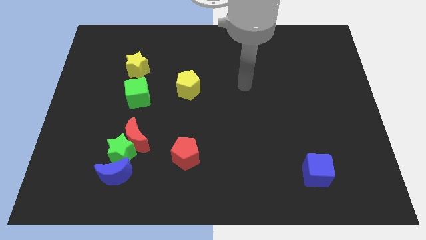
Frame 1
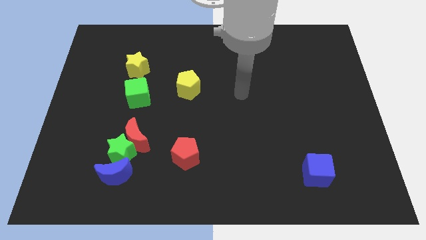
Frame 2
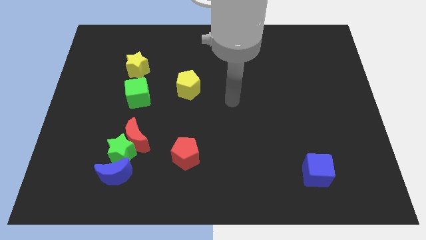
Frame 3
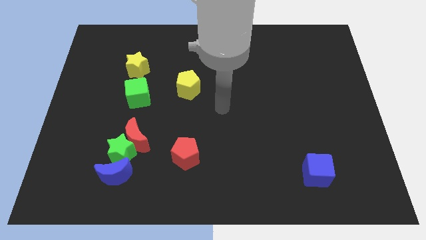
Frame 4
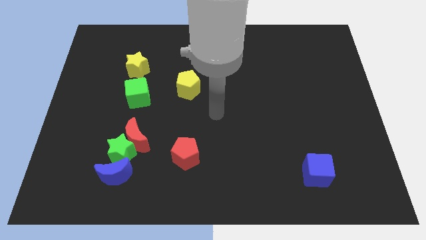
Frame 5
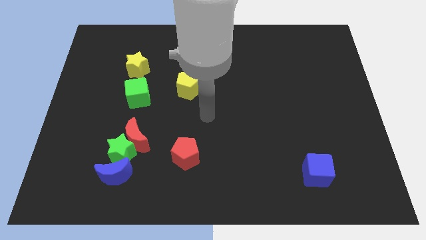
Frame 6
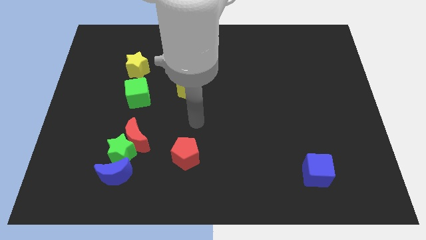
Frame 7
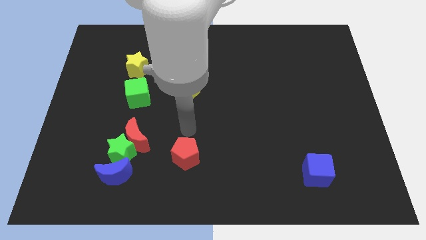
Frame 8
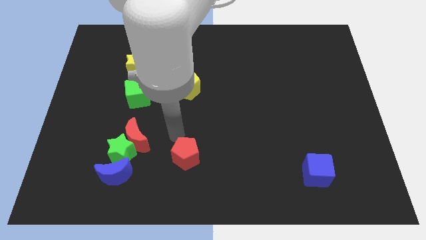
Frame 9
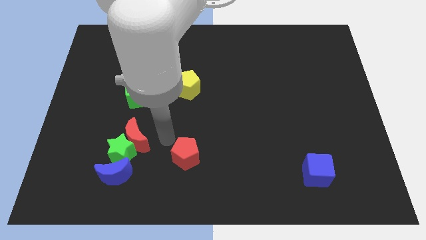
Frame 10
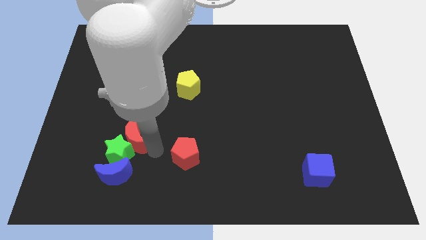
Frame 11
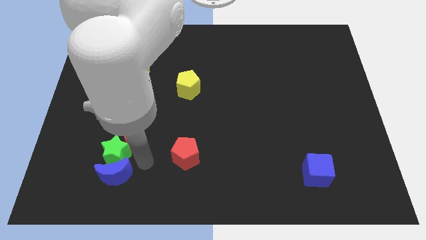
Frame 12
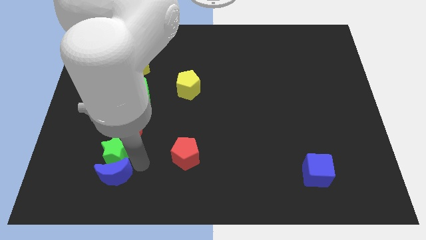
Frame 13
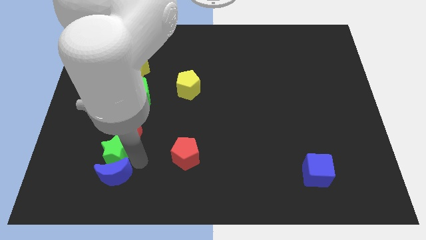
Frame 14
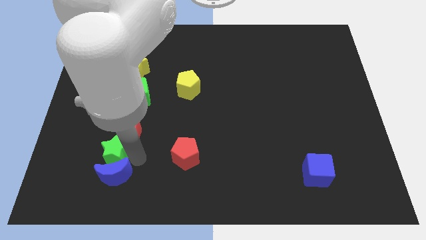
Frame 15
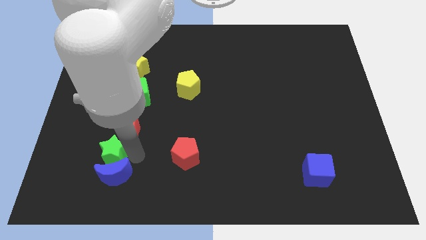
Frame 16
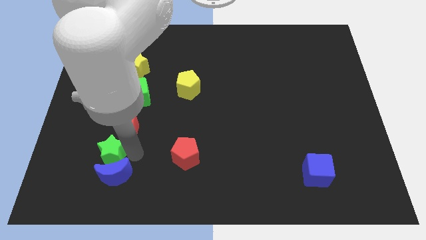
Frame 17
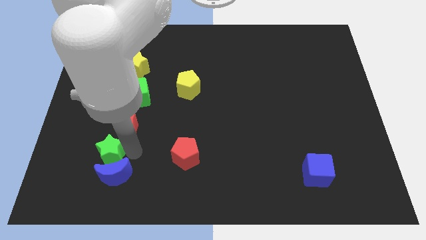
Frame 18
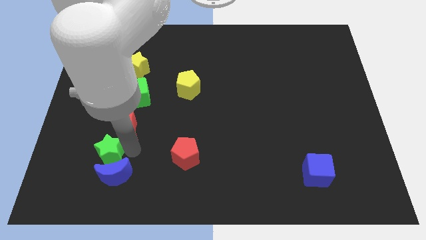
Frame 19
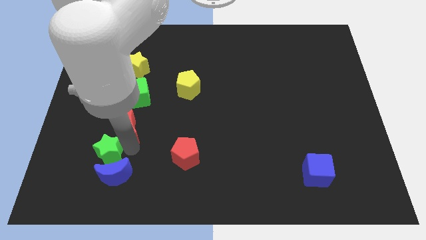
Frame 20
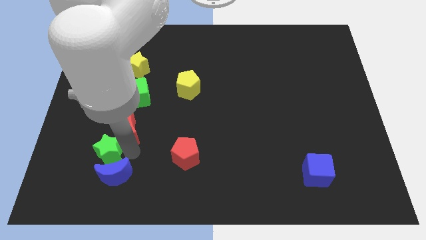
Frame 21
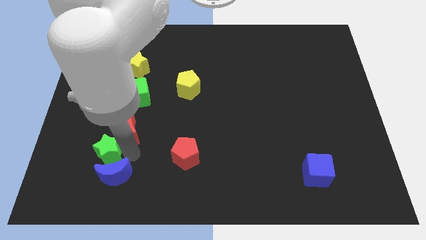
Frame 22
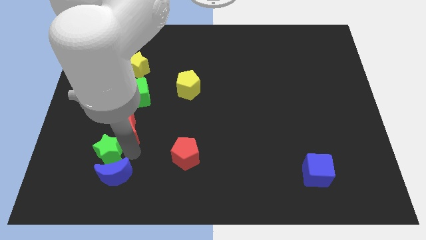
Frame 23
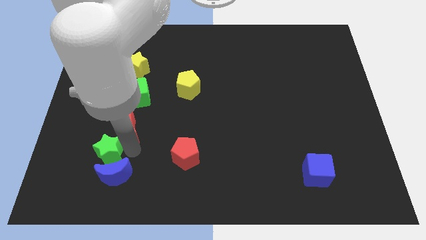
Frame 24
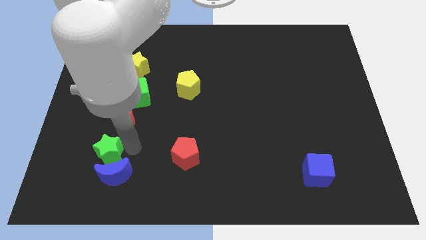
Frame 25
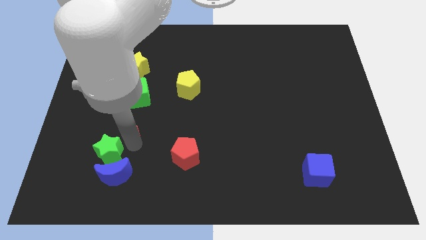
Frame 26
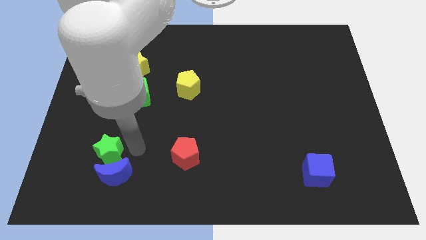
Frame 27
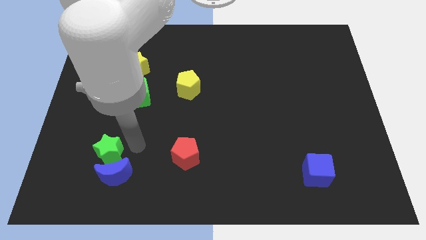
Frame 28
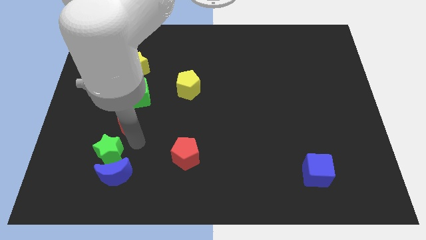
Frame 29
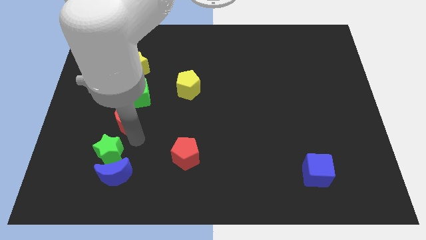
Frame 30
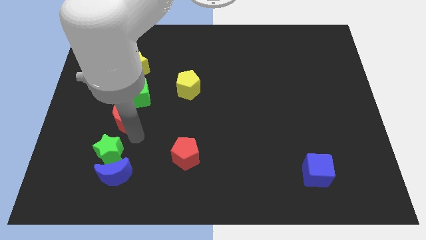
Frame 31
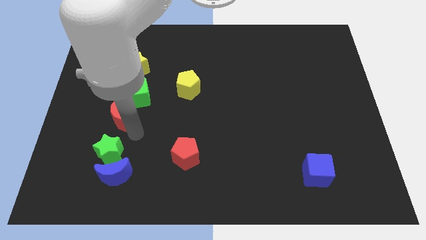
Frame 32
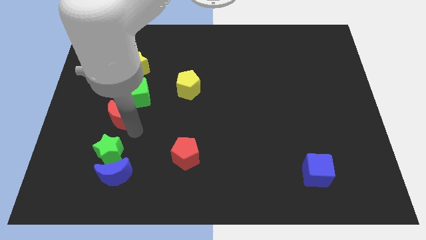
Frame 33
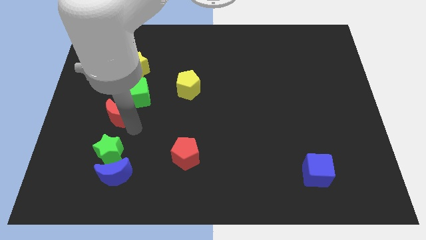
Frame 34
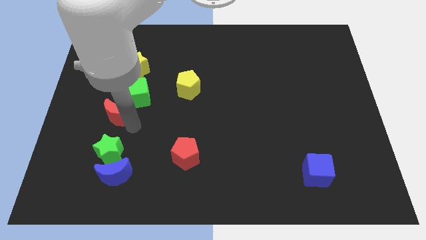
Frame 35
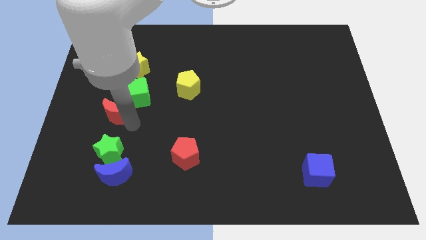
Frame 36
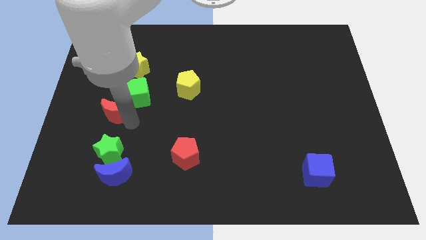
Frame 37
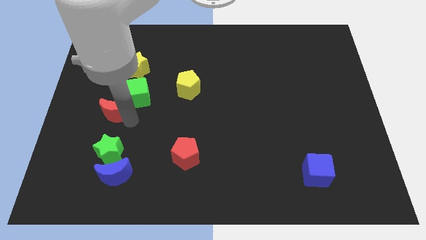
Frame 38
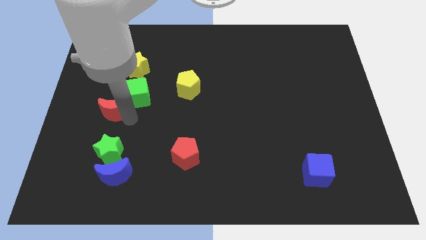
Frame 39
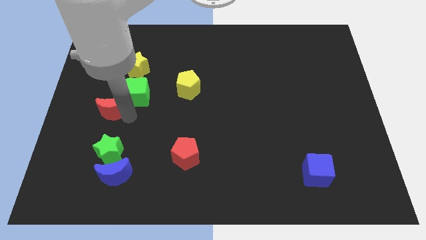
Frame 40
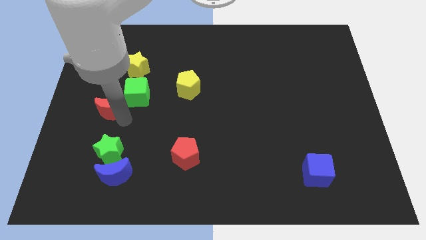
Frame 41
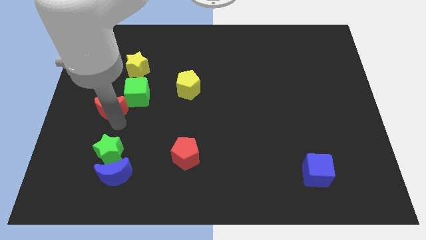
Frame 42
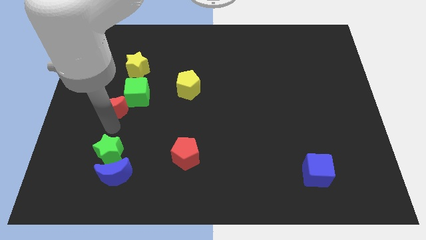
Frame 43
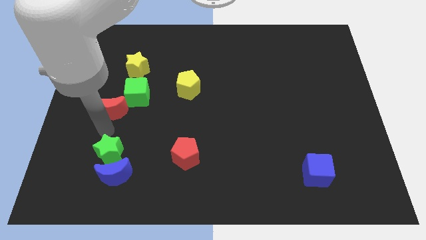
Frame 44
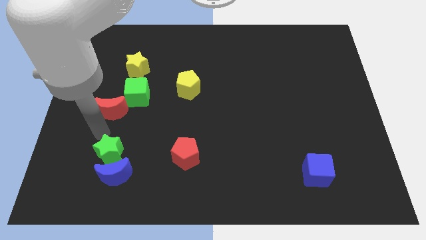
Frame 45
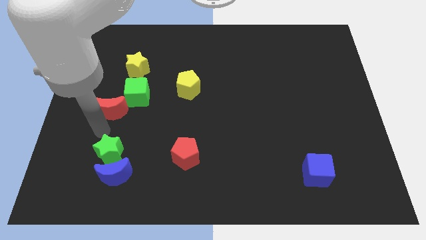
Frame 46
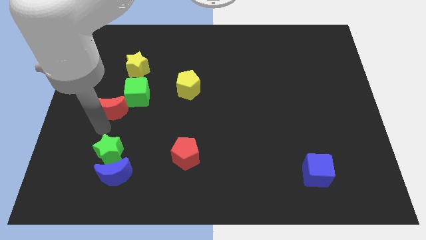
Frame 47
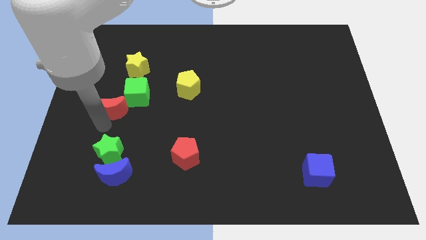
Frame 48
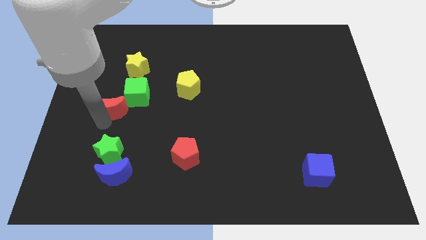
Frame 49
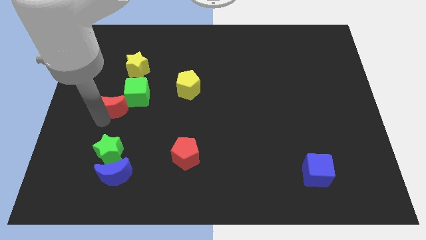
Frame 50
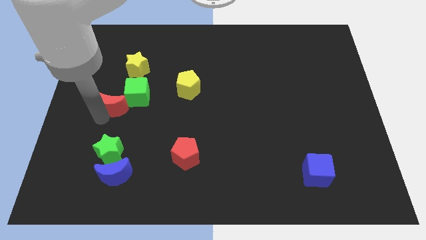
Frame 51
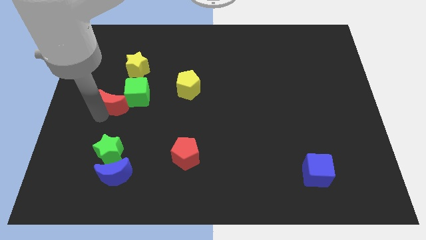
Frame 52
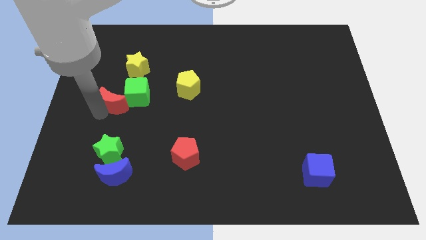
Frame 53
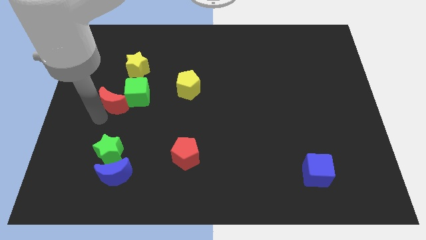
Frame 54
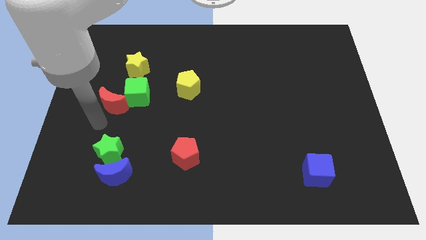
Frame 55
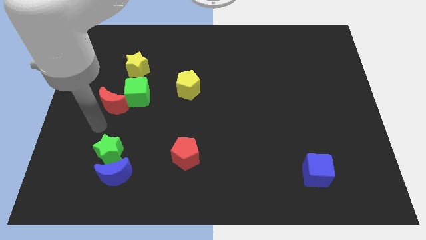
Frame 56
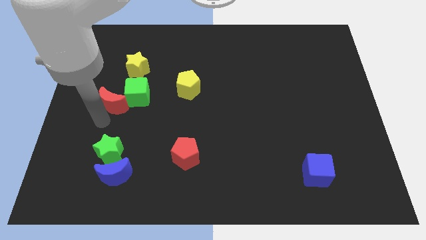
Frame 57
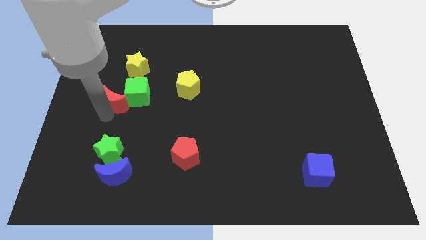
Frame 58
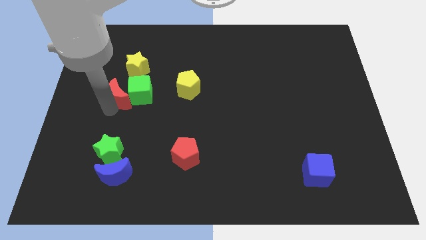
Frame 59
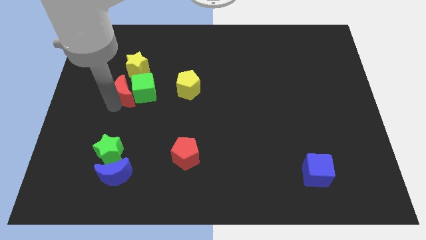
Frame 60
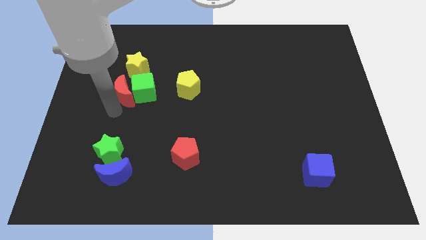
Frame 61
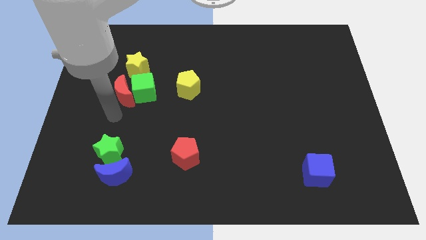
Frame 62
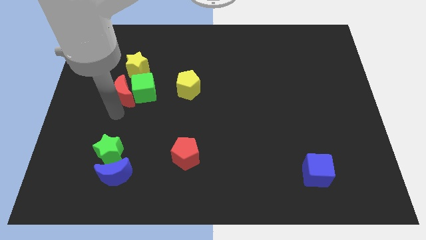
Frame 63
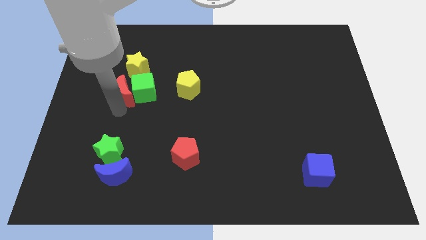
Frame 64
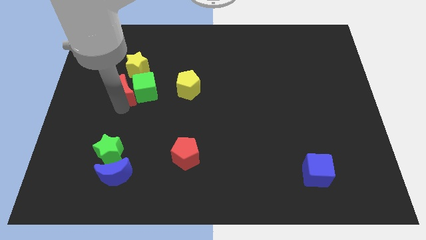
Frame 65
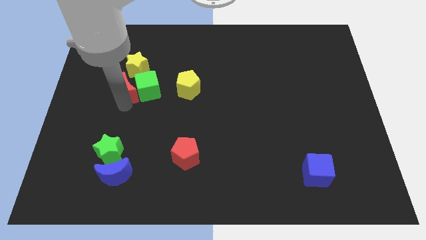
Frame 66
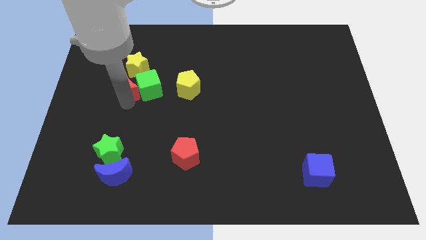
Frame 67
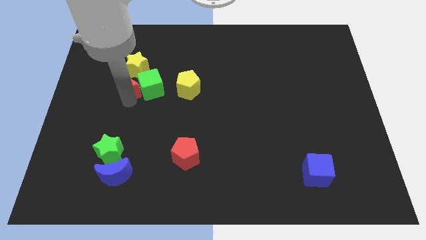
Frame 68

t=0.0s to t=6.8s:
slide the red moon close to the yellow star

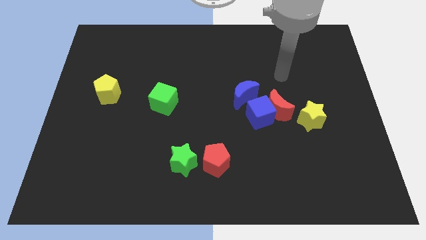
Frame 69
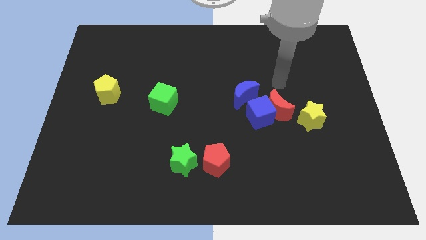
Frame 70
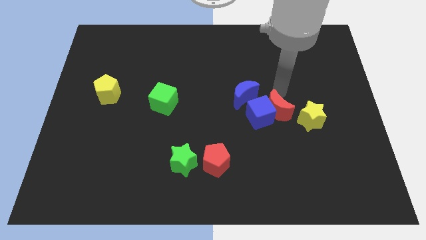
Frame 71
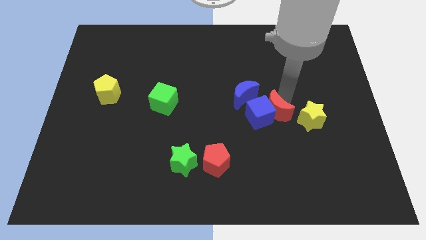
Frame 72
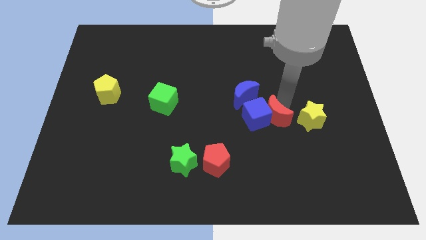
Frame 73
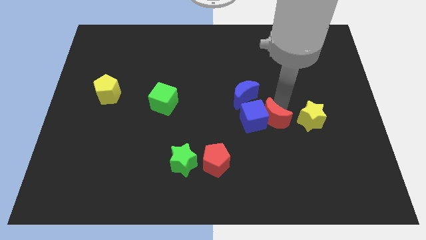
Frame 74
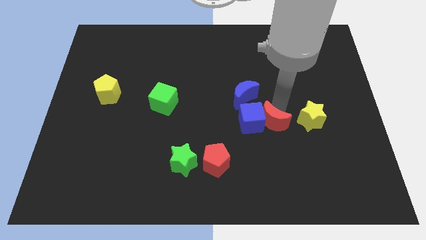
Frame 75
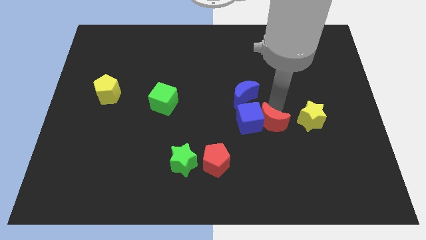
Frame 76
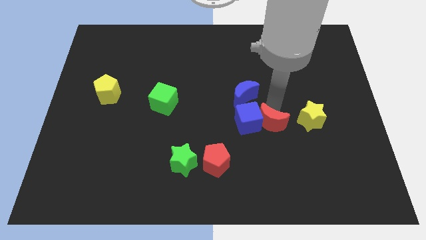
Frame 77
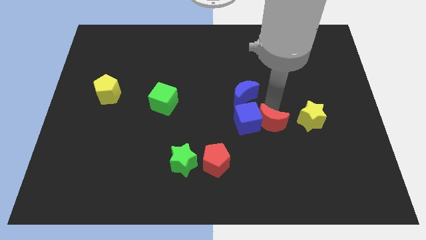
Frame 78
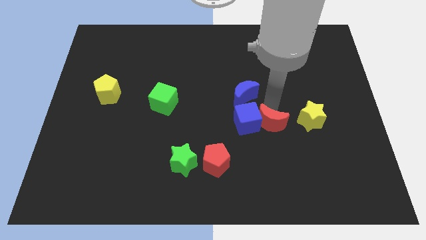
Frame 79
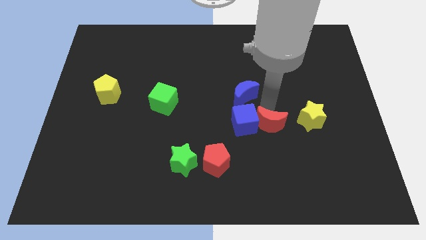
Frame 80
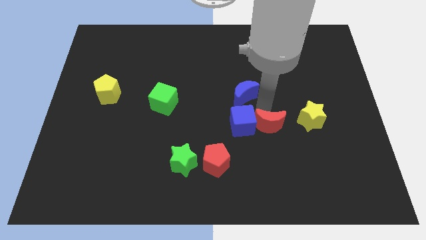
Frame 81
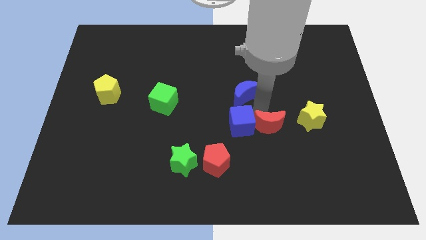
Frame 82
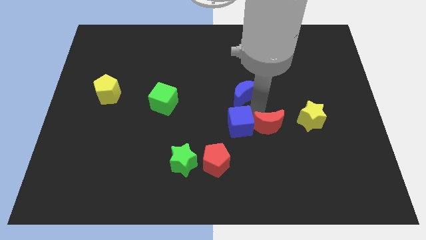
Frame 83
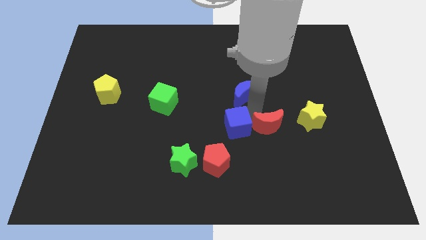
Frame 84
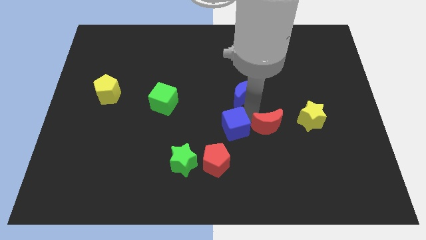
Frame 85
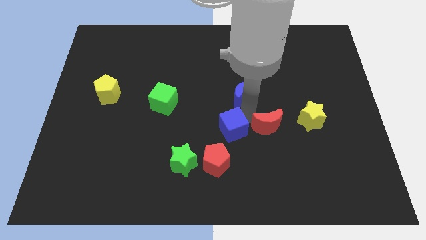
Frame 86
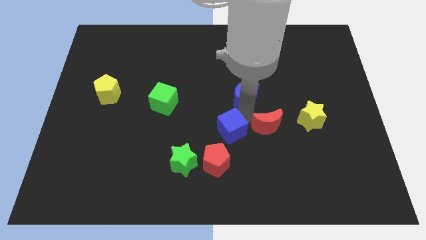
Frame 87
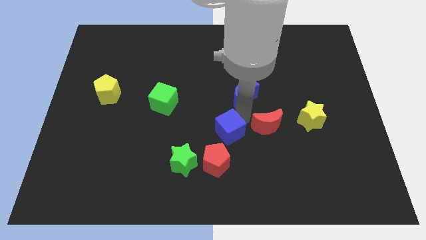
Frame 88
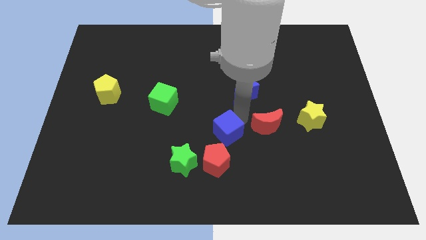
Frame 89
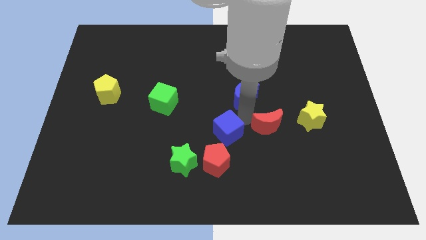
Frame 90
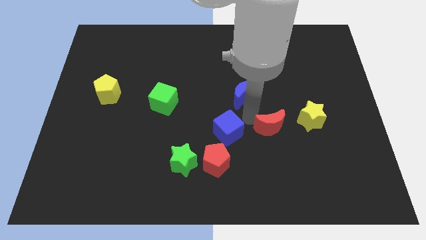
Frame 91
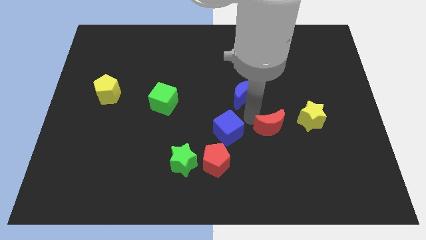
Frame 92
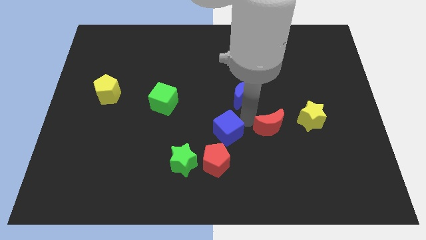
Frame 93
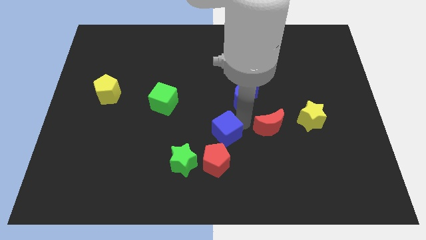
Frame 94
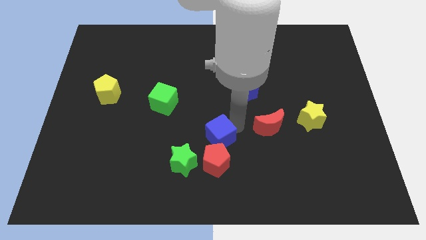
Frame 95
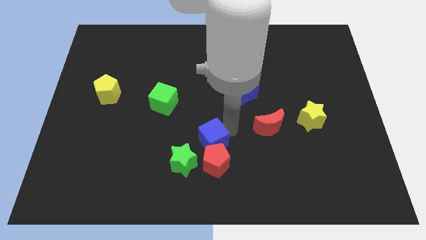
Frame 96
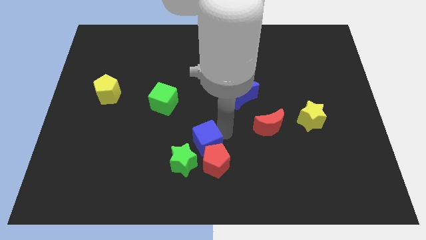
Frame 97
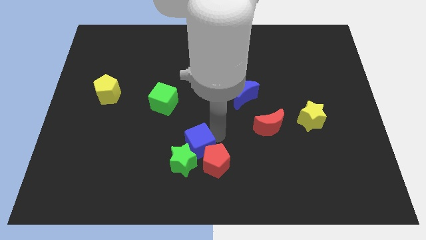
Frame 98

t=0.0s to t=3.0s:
move the blue cube close to the green star
